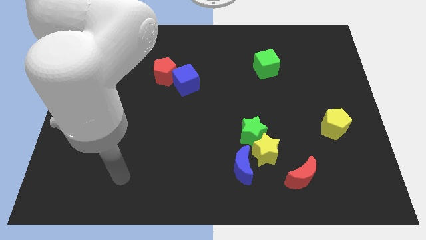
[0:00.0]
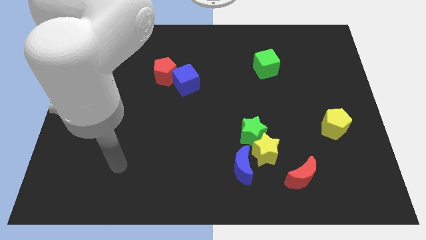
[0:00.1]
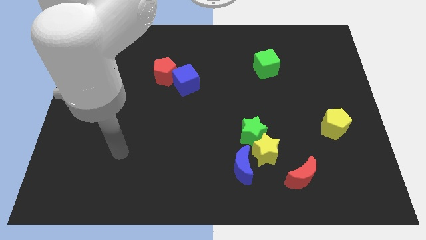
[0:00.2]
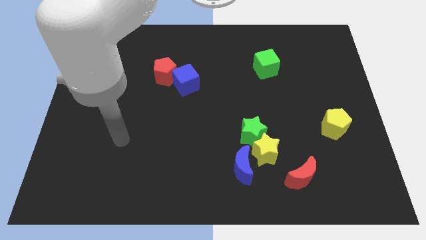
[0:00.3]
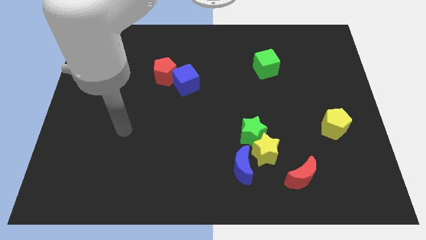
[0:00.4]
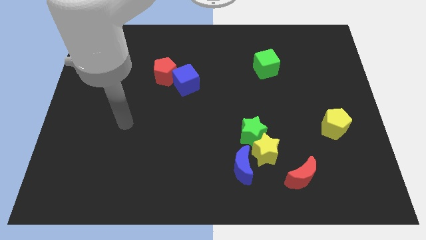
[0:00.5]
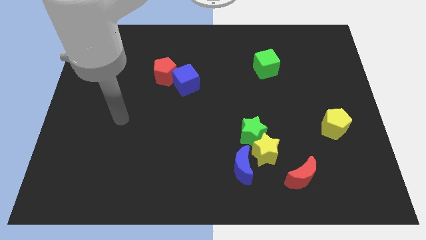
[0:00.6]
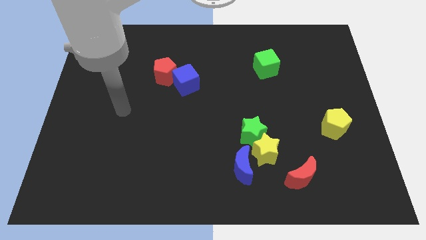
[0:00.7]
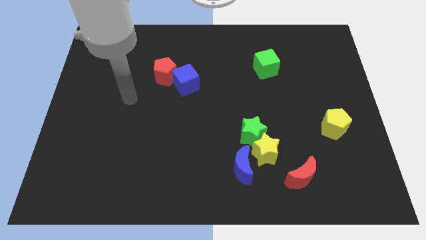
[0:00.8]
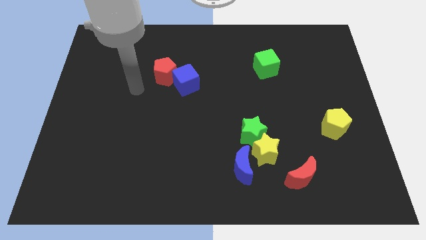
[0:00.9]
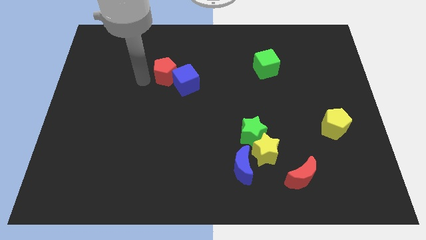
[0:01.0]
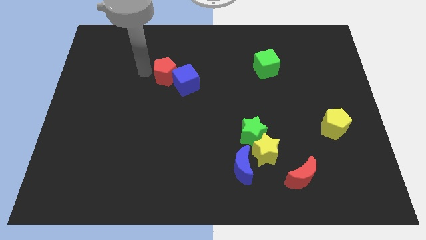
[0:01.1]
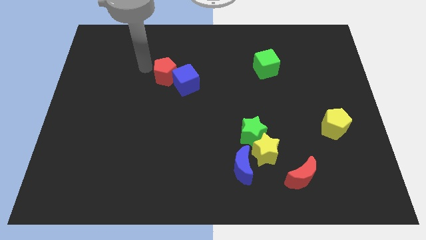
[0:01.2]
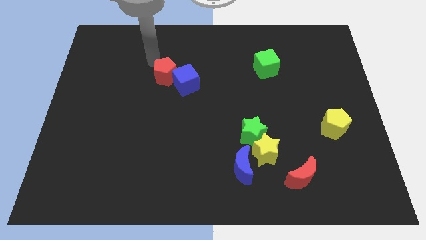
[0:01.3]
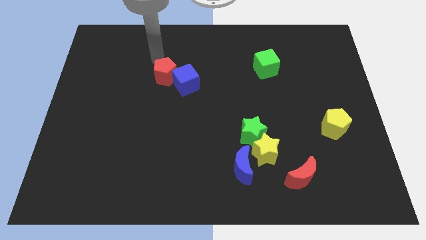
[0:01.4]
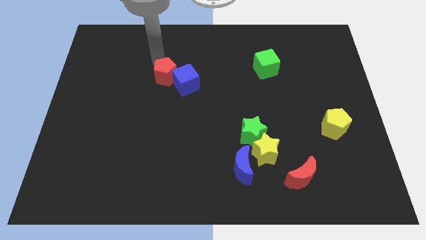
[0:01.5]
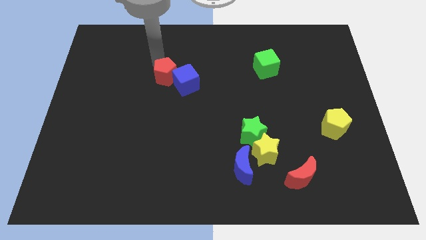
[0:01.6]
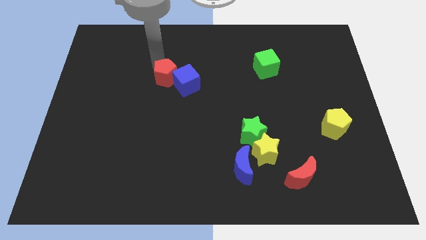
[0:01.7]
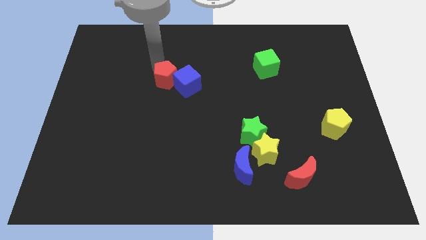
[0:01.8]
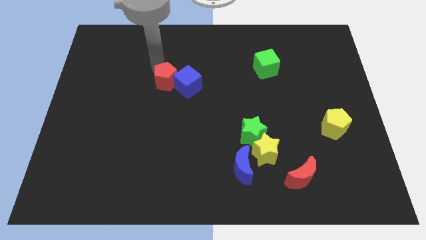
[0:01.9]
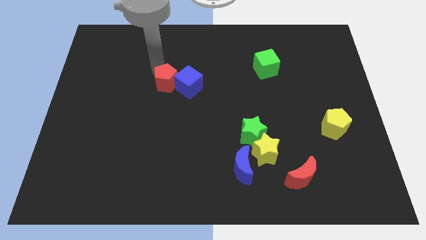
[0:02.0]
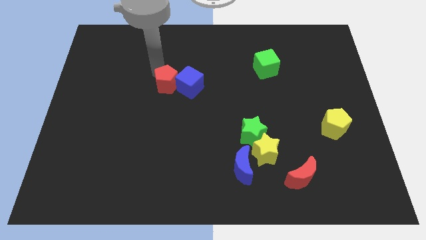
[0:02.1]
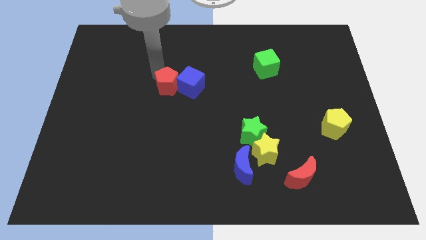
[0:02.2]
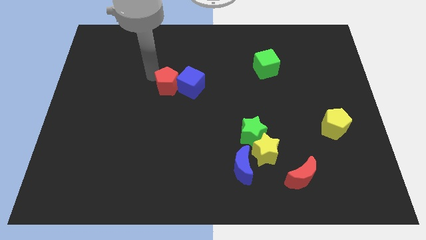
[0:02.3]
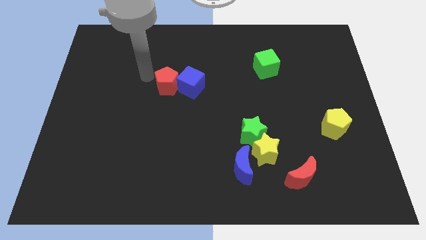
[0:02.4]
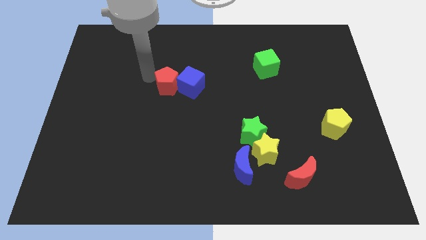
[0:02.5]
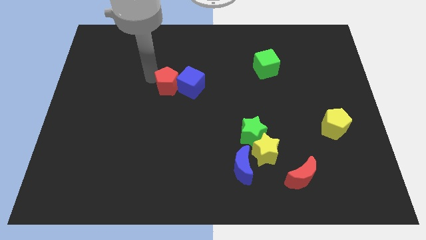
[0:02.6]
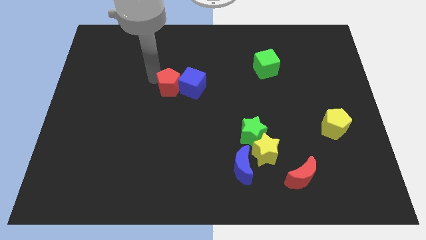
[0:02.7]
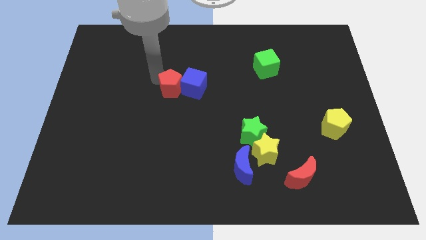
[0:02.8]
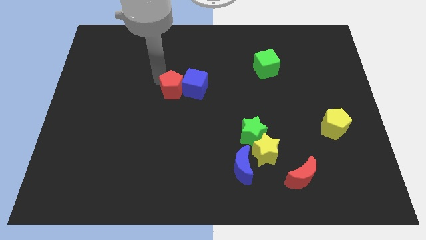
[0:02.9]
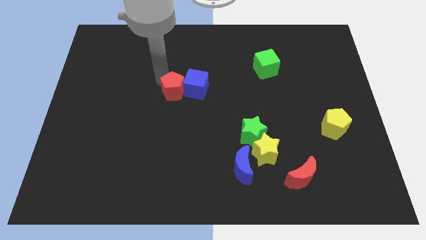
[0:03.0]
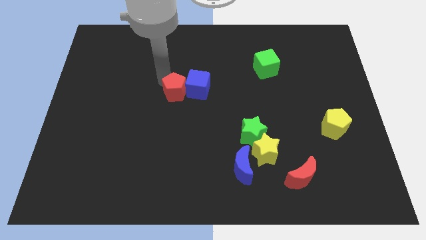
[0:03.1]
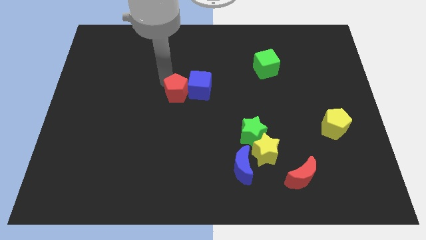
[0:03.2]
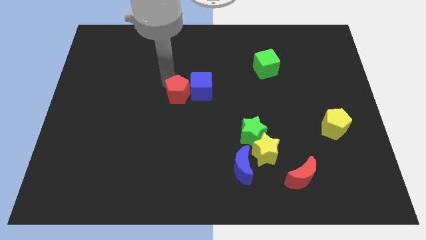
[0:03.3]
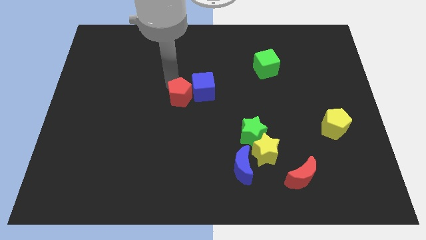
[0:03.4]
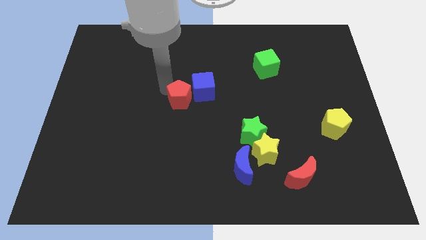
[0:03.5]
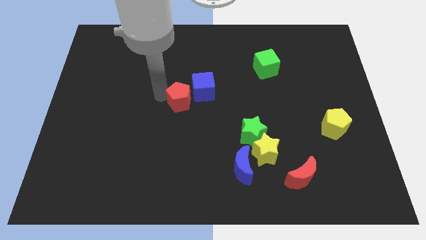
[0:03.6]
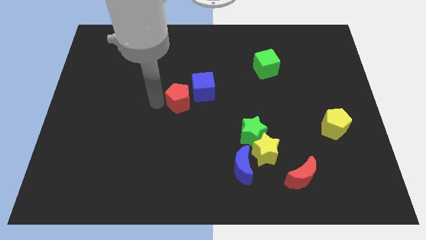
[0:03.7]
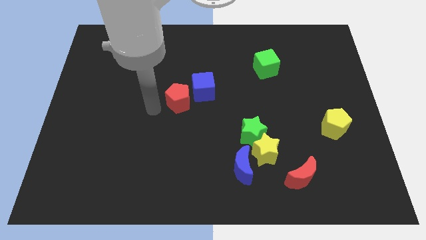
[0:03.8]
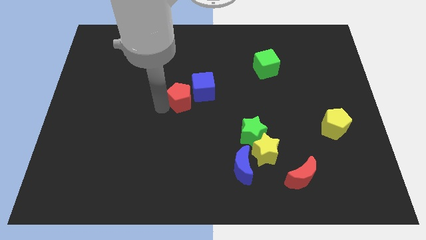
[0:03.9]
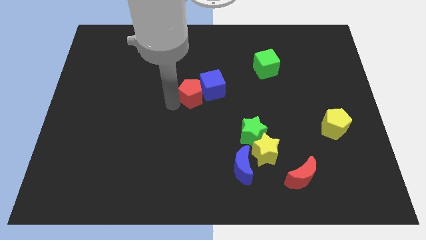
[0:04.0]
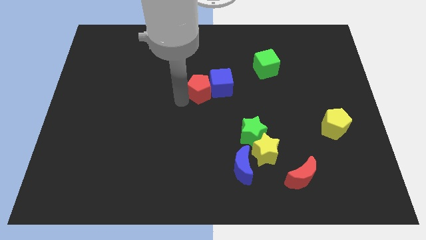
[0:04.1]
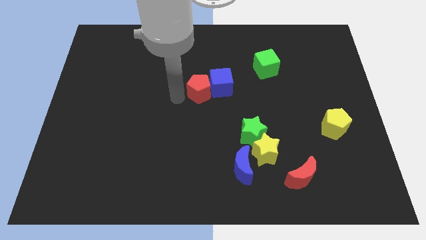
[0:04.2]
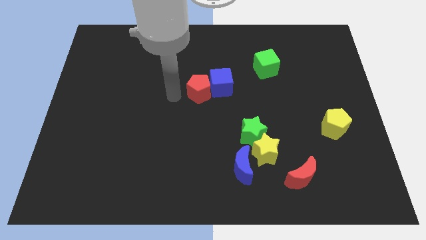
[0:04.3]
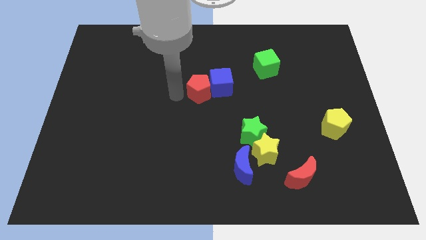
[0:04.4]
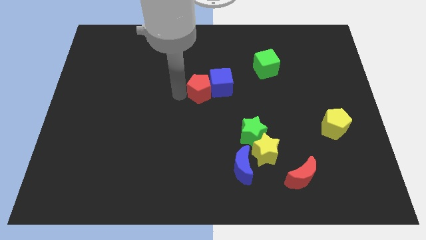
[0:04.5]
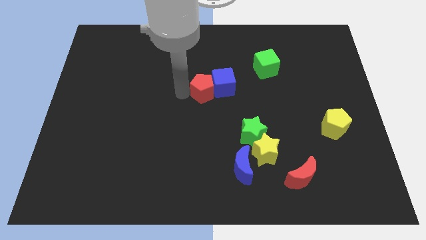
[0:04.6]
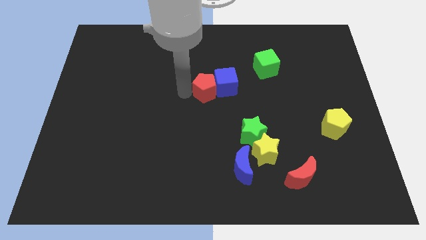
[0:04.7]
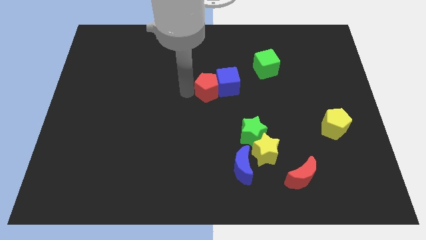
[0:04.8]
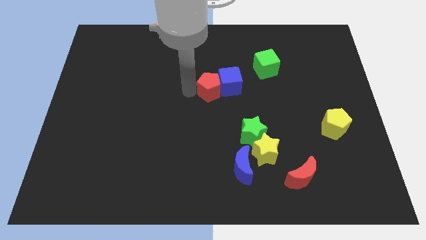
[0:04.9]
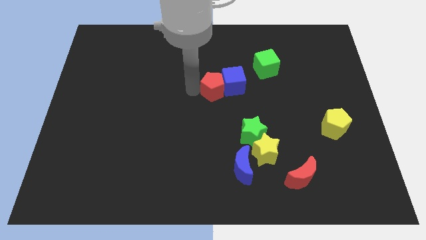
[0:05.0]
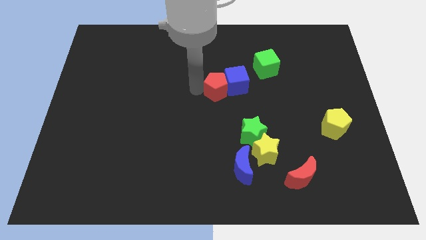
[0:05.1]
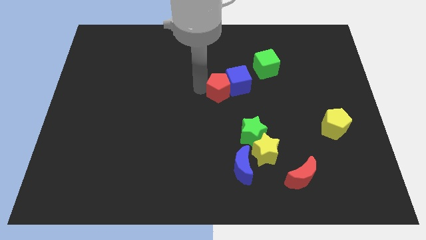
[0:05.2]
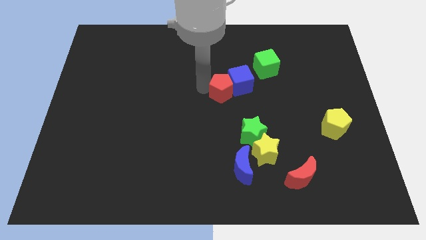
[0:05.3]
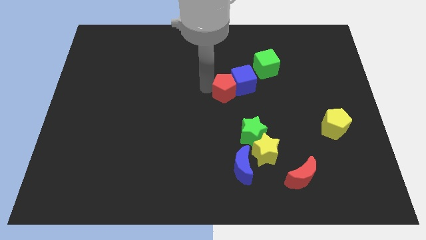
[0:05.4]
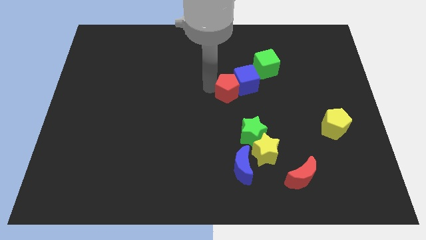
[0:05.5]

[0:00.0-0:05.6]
push the red pentagon diagonally down and to the left of the green cube

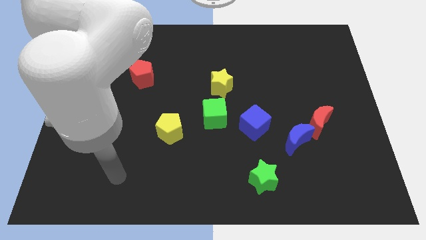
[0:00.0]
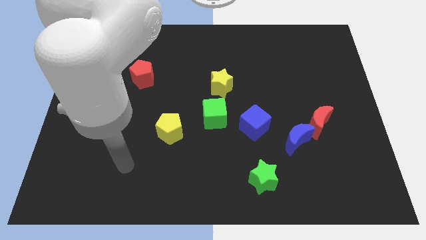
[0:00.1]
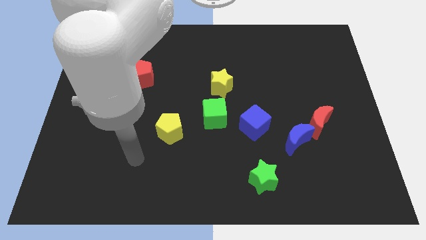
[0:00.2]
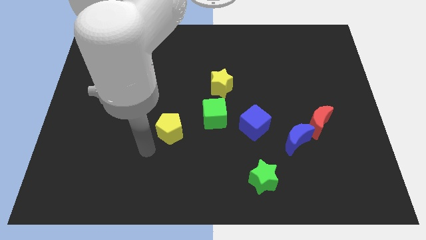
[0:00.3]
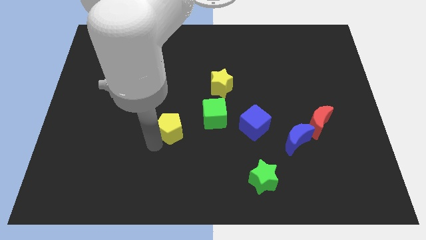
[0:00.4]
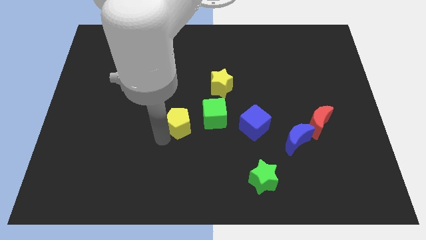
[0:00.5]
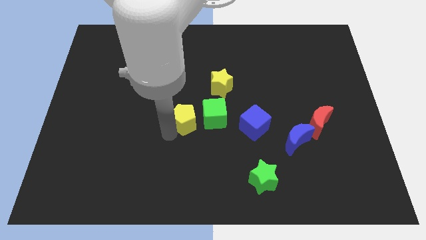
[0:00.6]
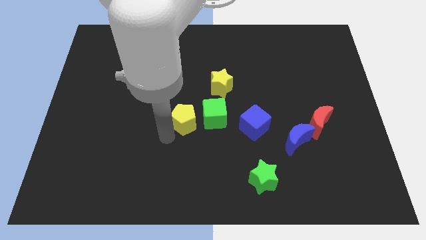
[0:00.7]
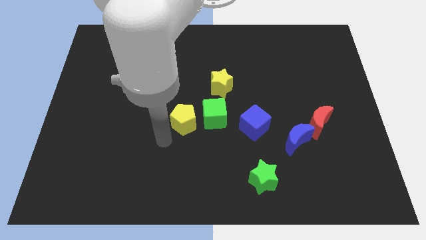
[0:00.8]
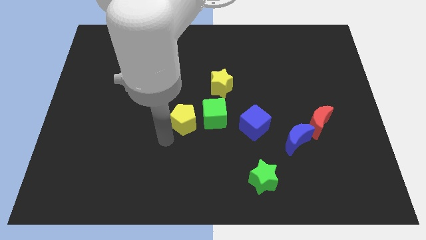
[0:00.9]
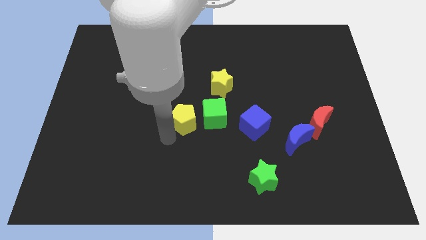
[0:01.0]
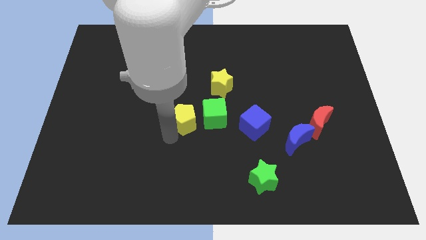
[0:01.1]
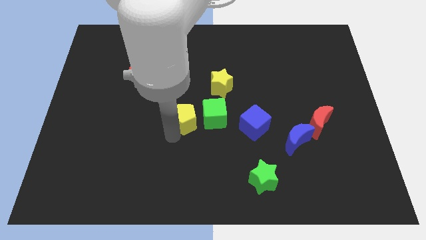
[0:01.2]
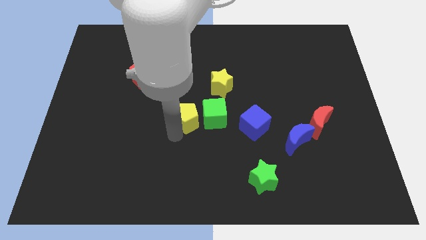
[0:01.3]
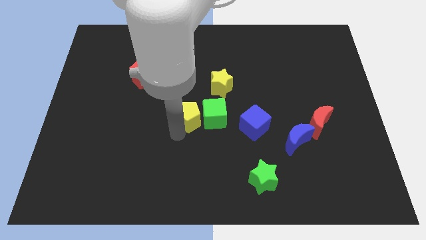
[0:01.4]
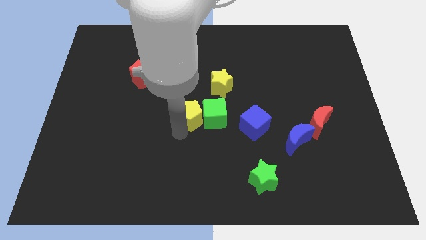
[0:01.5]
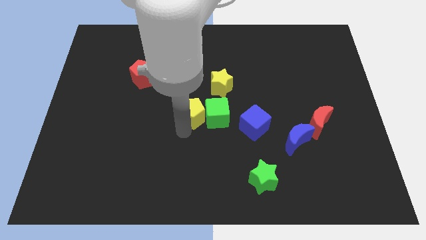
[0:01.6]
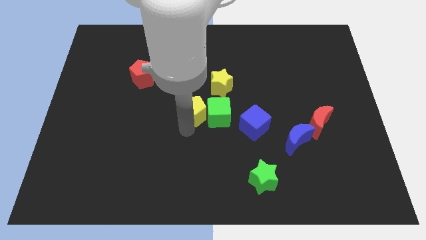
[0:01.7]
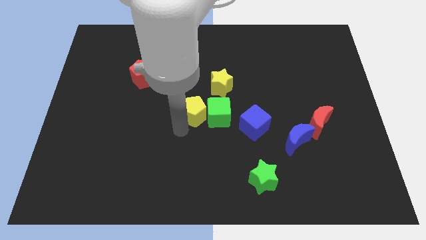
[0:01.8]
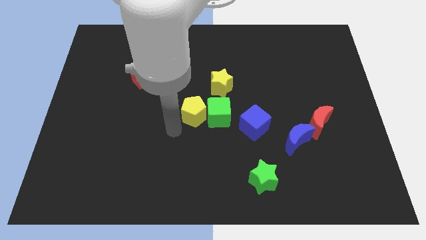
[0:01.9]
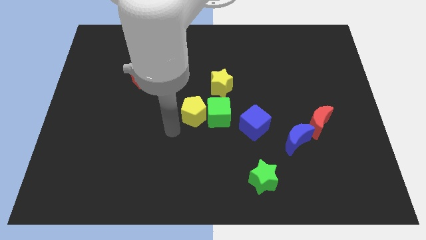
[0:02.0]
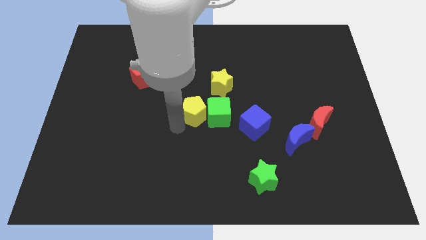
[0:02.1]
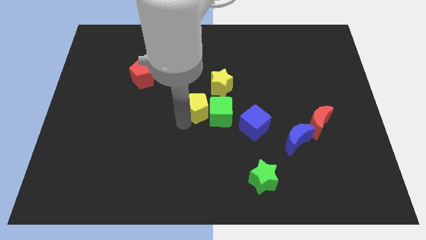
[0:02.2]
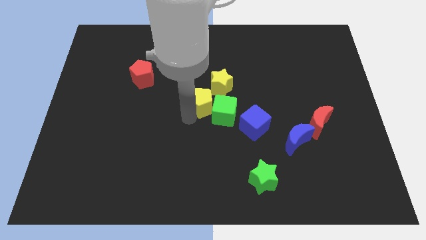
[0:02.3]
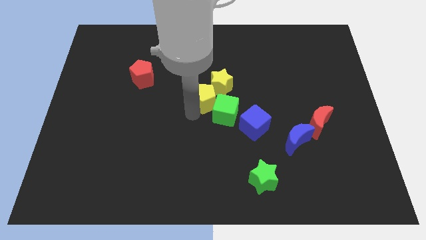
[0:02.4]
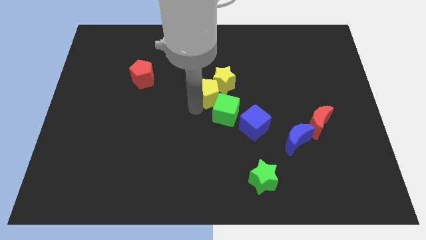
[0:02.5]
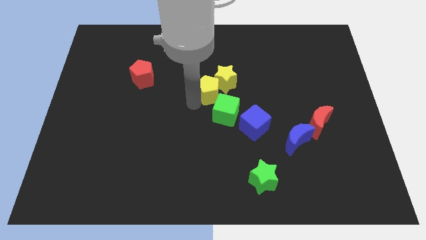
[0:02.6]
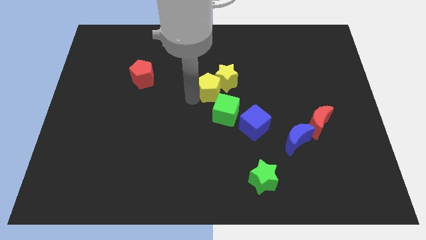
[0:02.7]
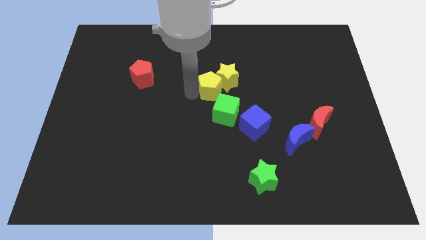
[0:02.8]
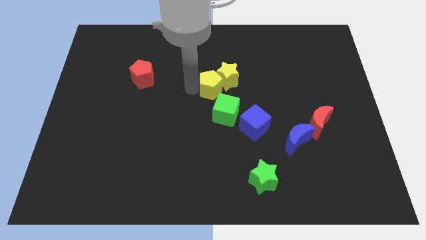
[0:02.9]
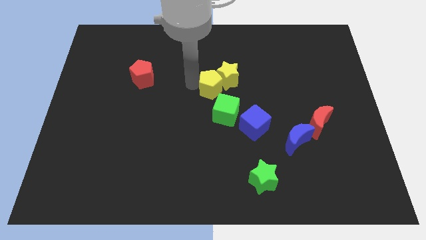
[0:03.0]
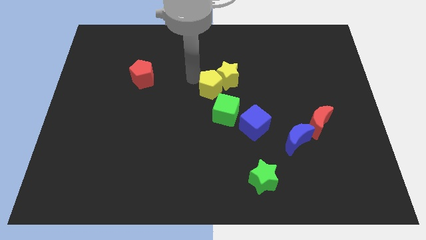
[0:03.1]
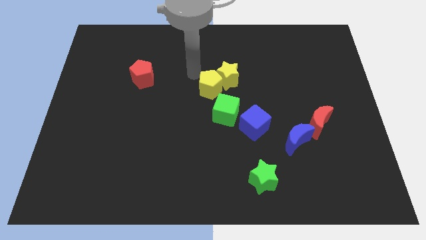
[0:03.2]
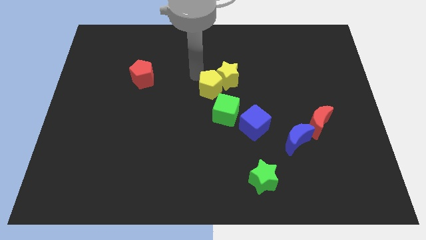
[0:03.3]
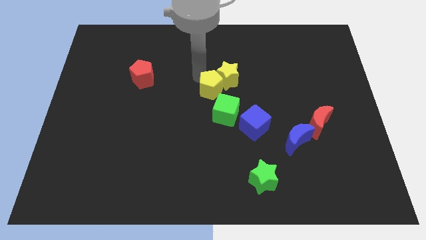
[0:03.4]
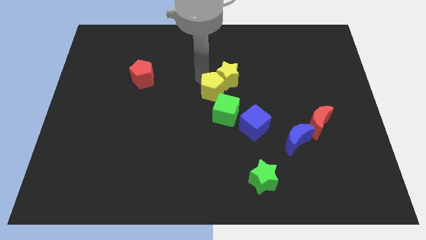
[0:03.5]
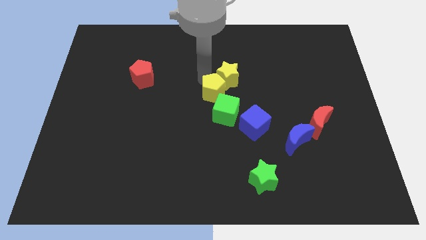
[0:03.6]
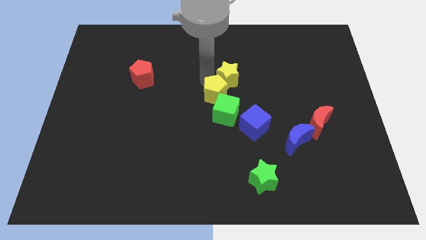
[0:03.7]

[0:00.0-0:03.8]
slide the yellow pentagon diagonally up and to the left of the blue cube
